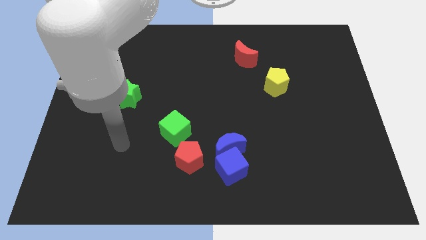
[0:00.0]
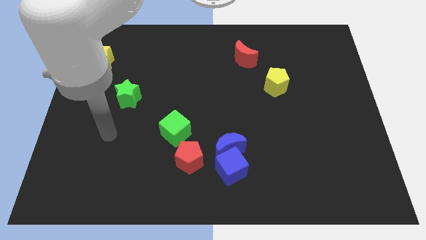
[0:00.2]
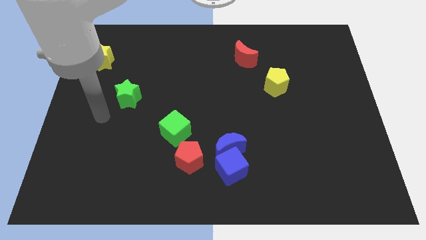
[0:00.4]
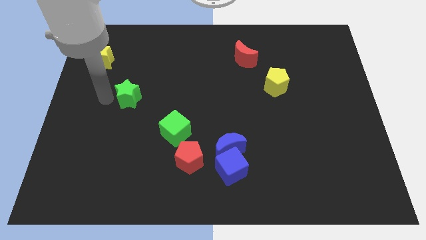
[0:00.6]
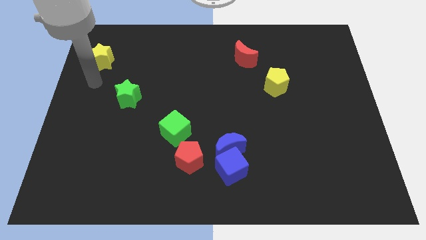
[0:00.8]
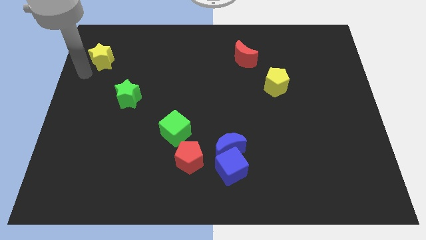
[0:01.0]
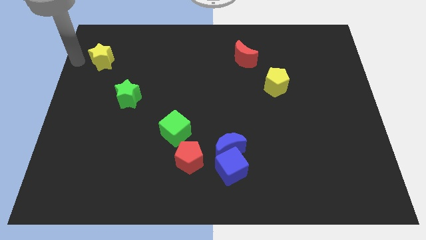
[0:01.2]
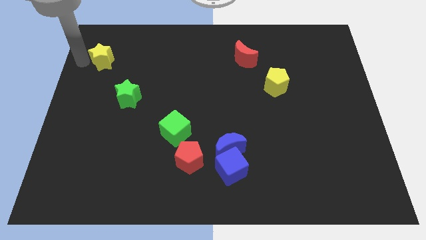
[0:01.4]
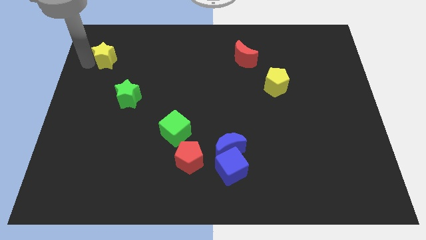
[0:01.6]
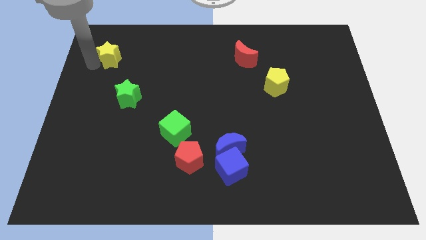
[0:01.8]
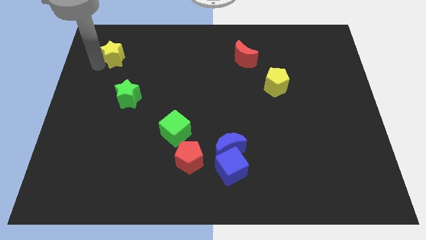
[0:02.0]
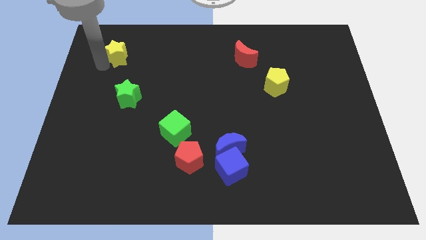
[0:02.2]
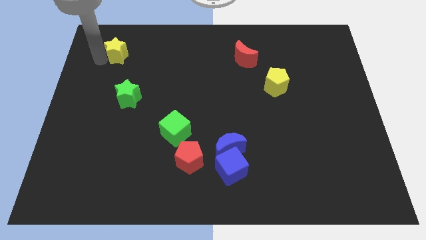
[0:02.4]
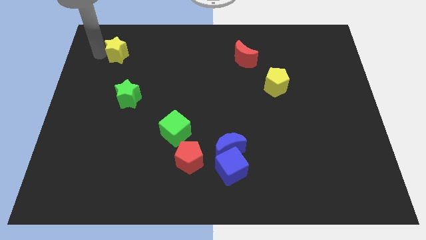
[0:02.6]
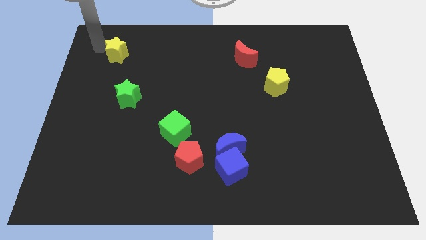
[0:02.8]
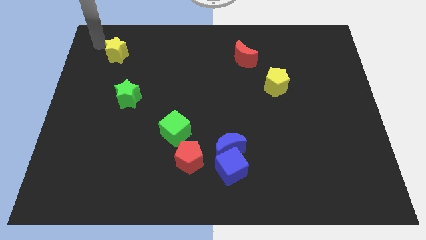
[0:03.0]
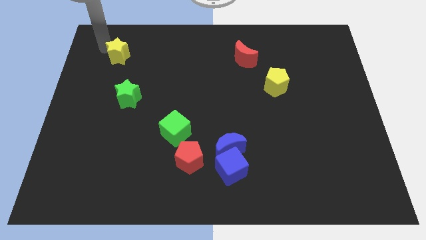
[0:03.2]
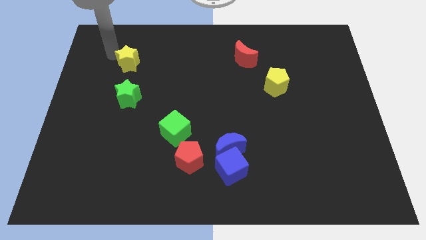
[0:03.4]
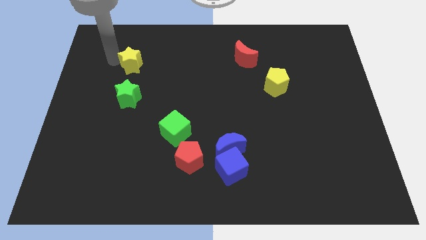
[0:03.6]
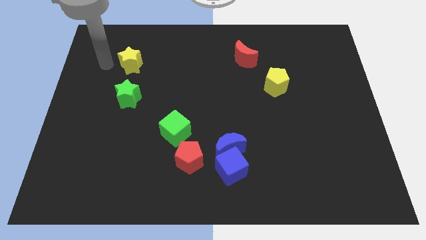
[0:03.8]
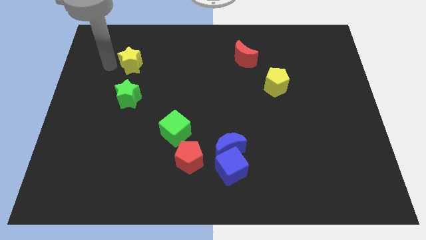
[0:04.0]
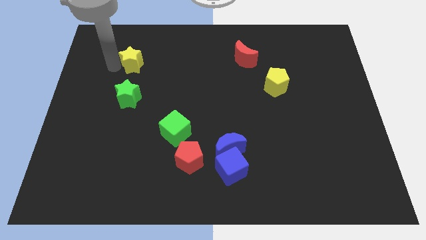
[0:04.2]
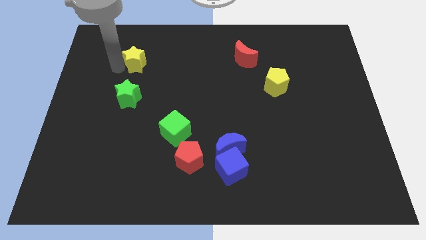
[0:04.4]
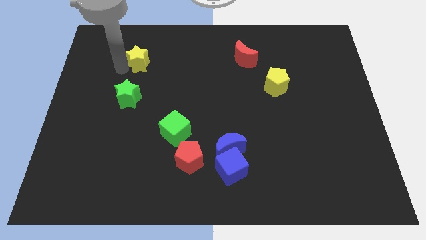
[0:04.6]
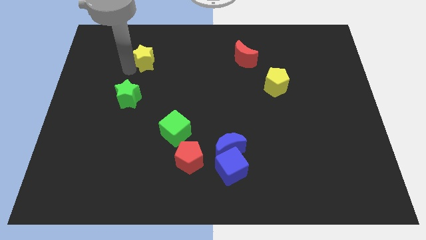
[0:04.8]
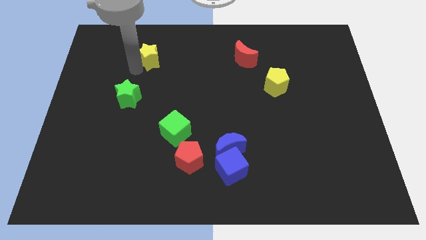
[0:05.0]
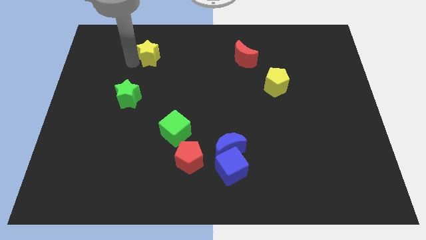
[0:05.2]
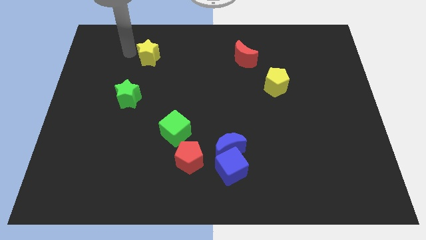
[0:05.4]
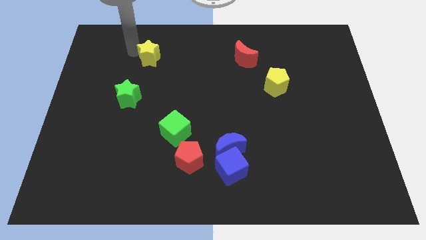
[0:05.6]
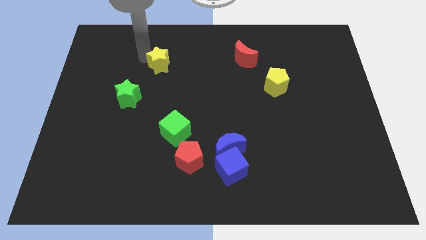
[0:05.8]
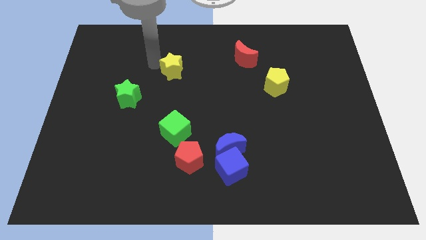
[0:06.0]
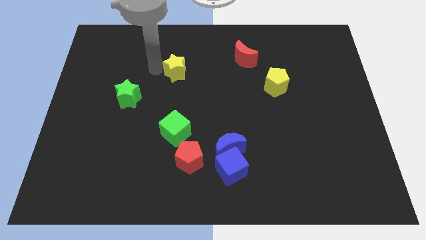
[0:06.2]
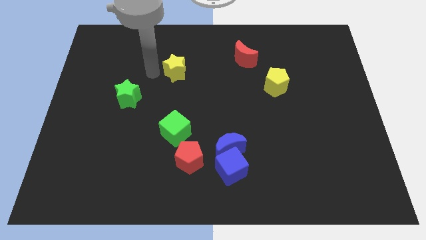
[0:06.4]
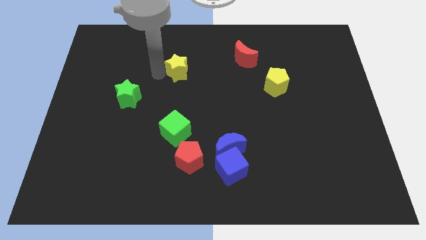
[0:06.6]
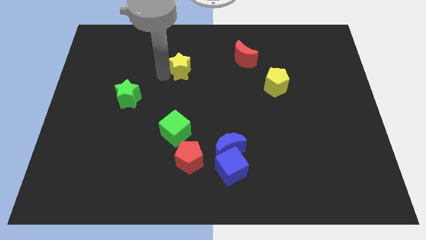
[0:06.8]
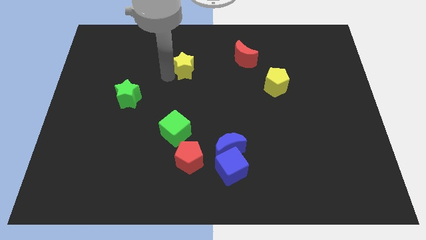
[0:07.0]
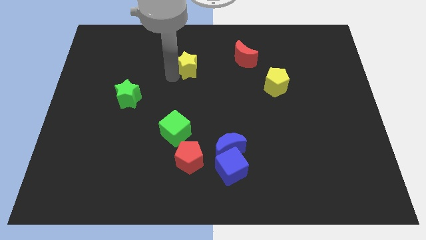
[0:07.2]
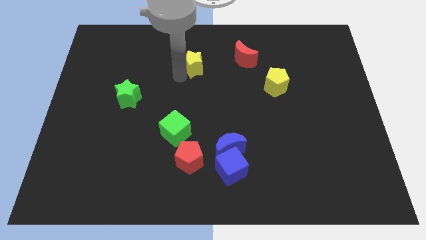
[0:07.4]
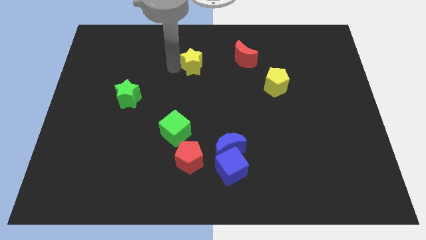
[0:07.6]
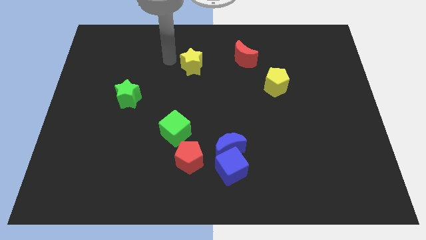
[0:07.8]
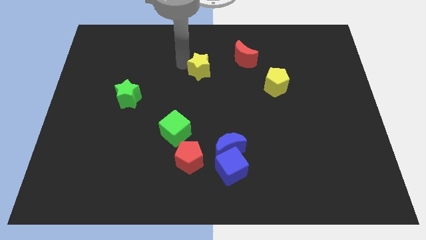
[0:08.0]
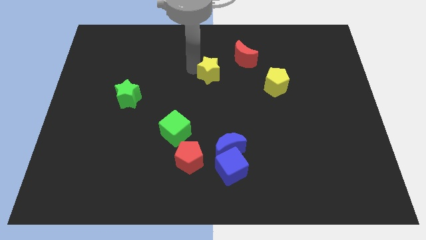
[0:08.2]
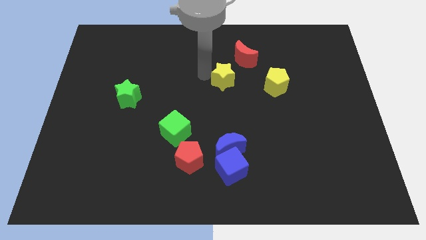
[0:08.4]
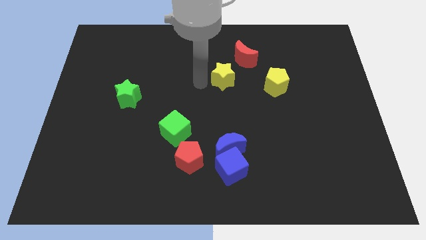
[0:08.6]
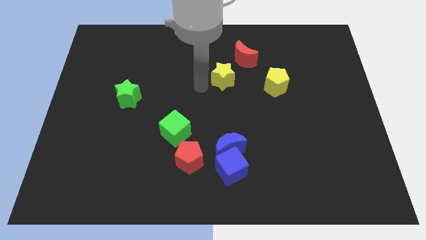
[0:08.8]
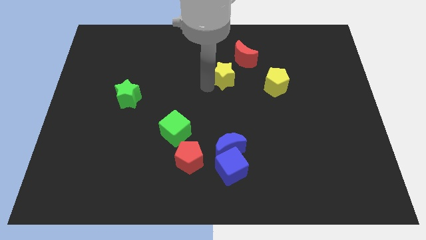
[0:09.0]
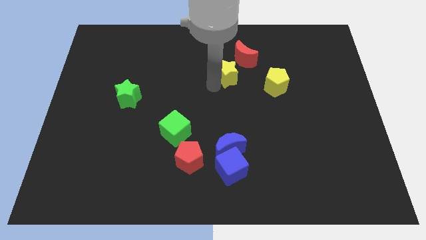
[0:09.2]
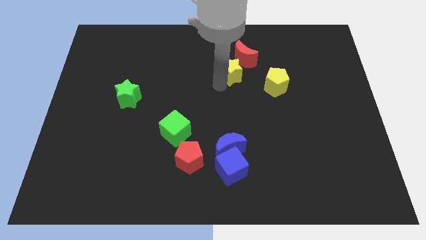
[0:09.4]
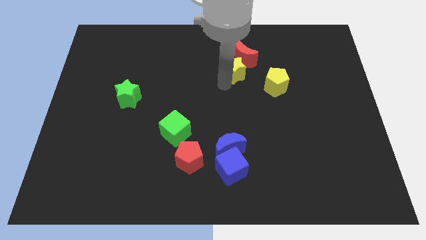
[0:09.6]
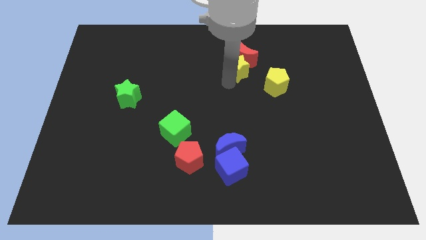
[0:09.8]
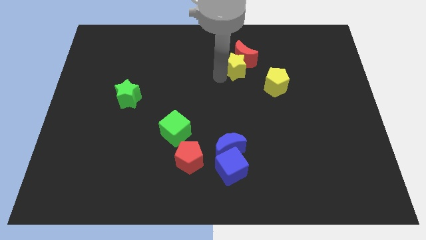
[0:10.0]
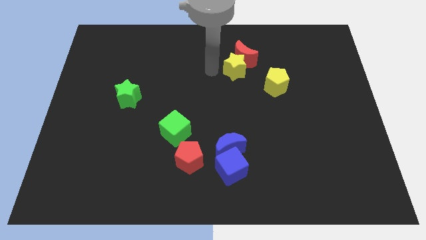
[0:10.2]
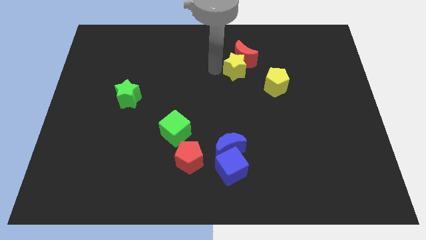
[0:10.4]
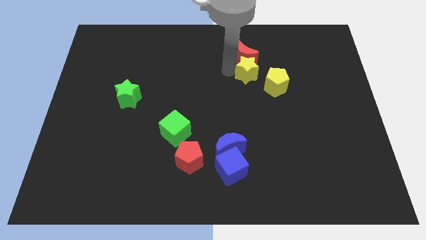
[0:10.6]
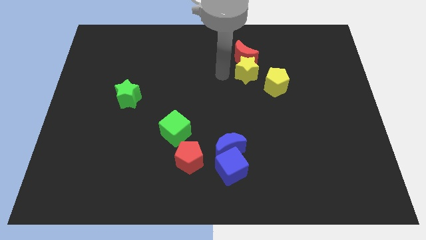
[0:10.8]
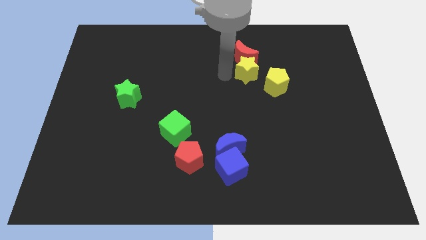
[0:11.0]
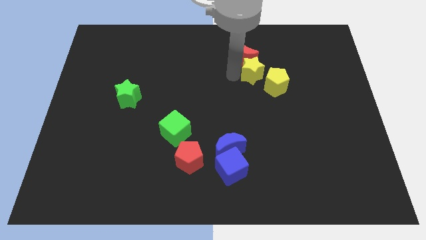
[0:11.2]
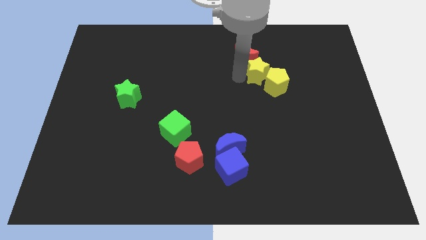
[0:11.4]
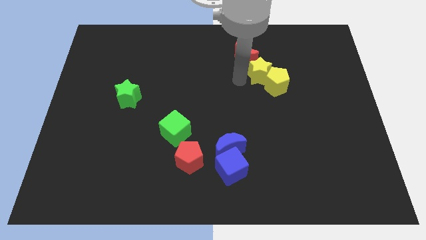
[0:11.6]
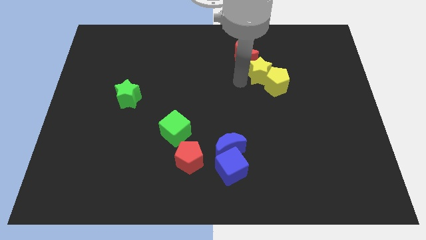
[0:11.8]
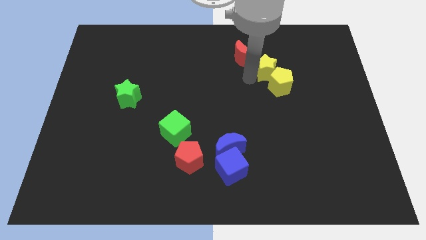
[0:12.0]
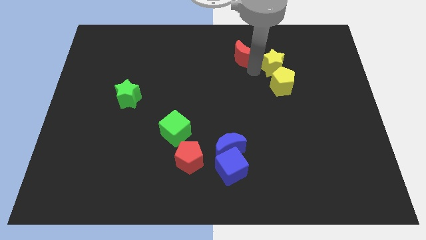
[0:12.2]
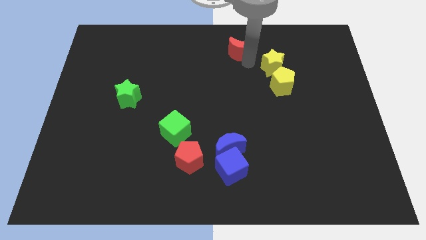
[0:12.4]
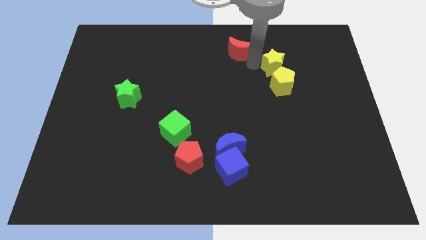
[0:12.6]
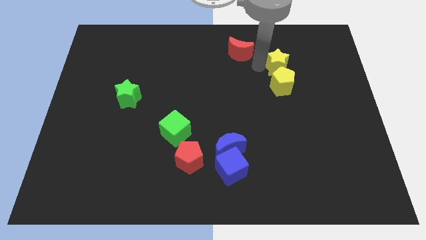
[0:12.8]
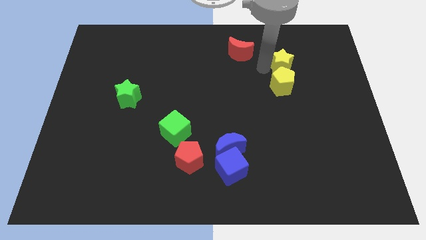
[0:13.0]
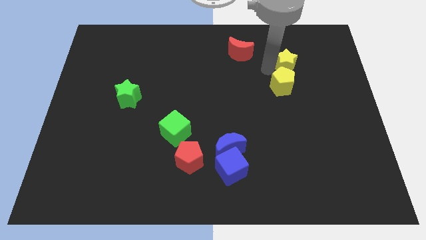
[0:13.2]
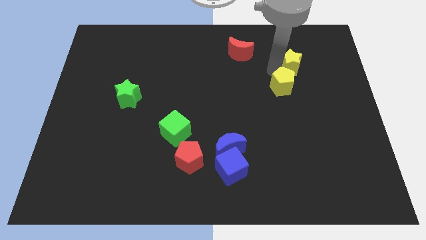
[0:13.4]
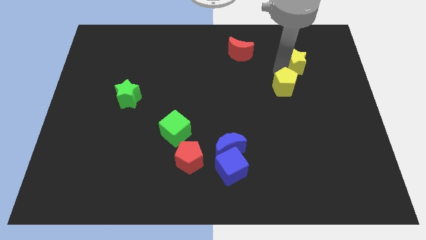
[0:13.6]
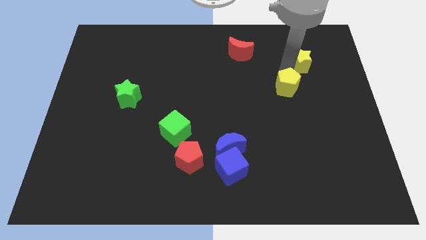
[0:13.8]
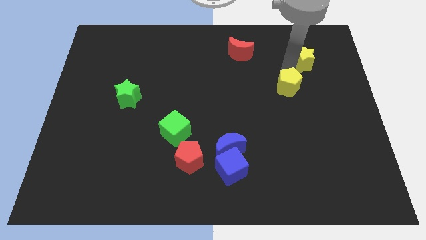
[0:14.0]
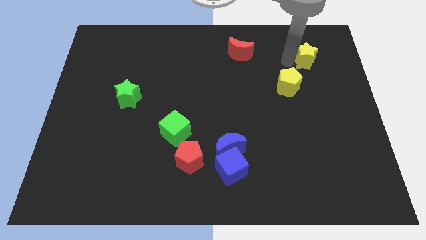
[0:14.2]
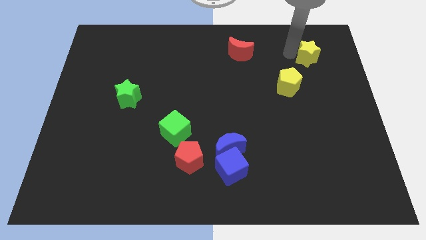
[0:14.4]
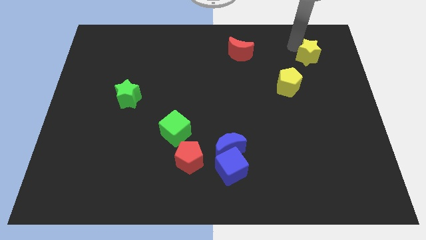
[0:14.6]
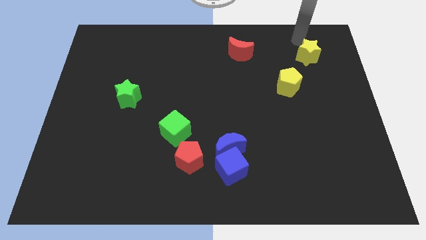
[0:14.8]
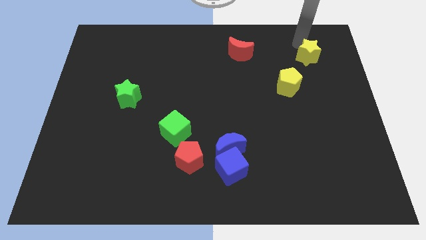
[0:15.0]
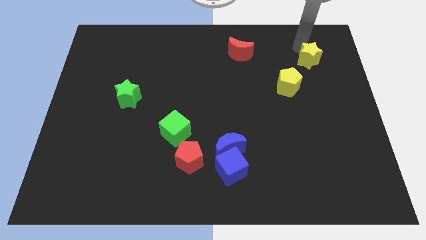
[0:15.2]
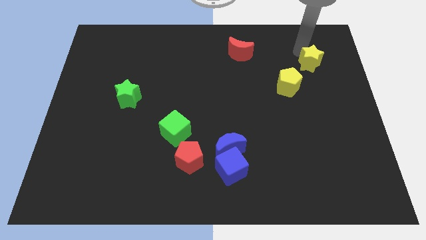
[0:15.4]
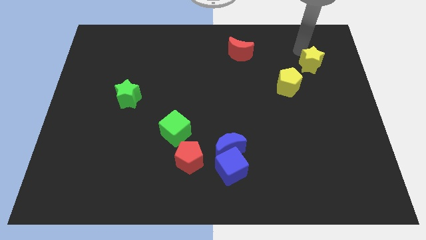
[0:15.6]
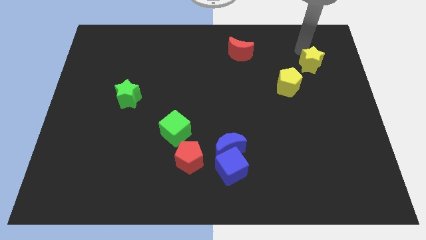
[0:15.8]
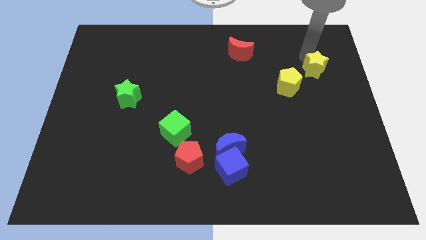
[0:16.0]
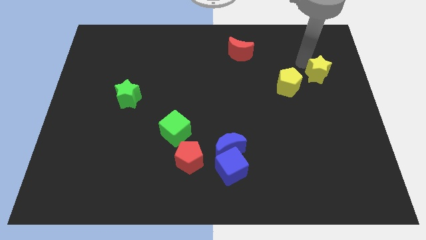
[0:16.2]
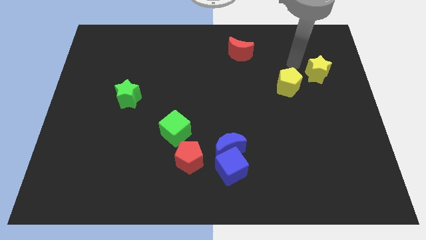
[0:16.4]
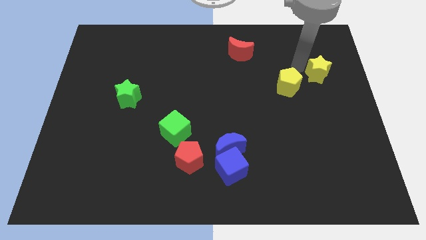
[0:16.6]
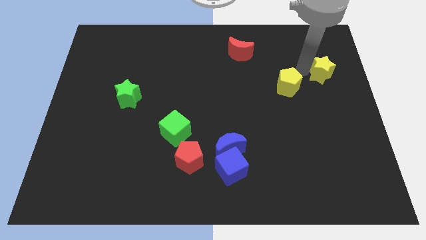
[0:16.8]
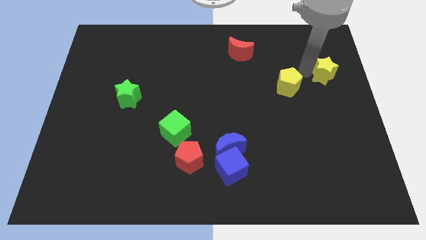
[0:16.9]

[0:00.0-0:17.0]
put the yellow star to the center right
